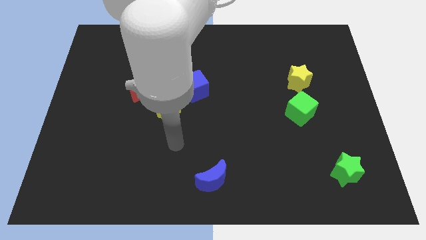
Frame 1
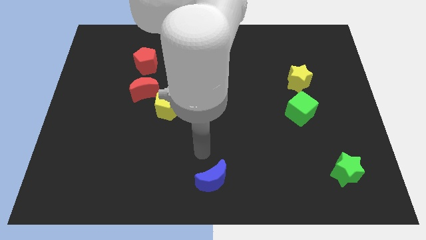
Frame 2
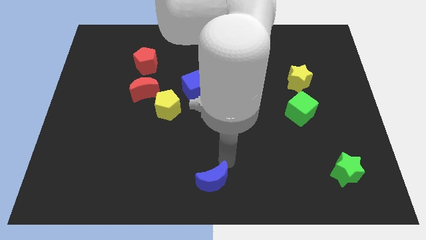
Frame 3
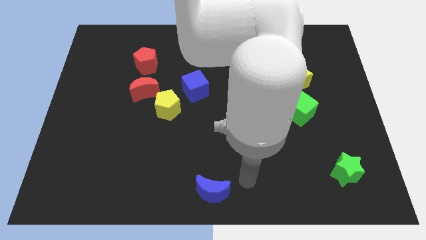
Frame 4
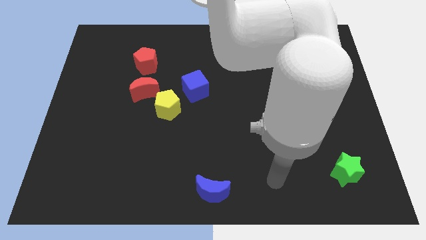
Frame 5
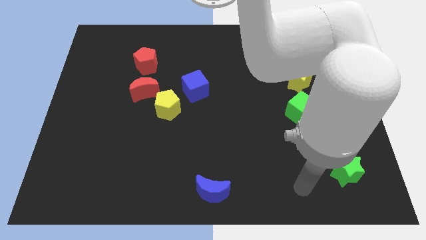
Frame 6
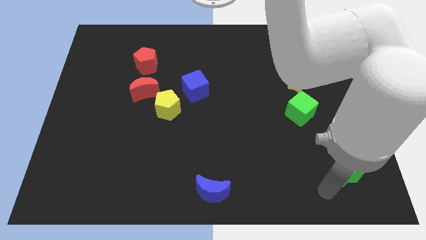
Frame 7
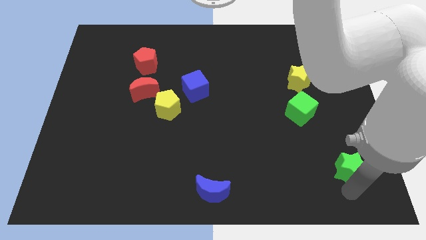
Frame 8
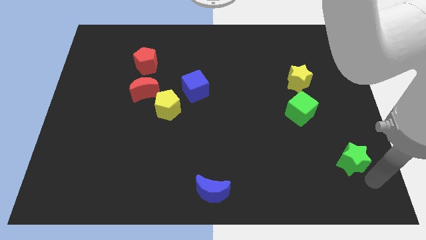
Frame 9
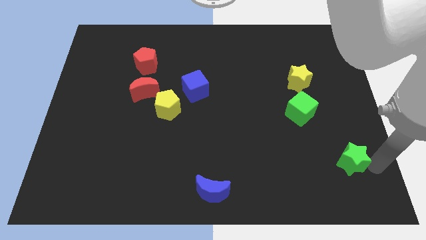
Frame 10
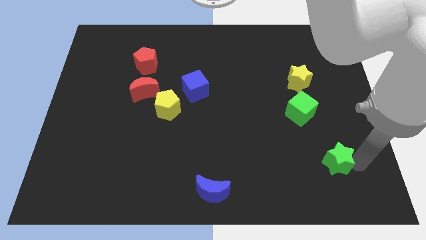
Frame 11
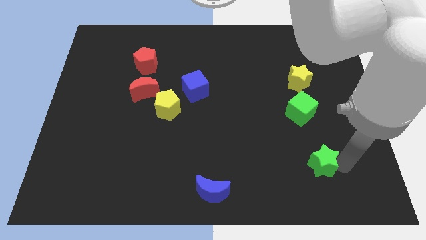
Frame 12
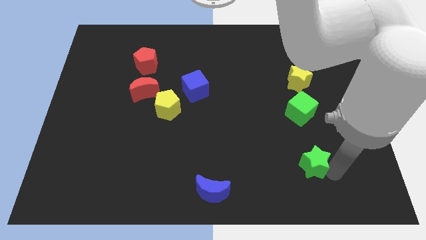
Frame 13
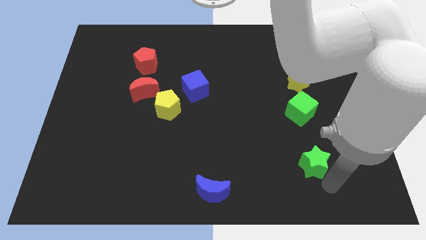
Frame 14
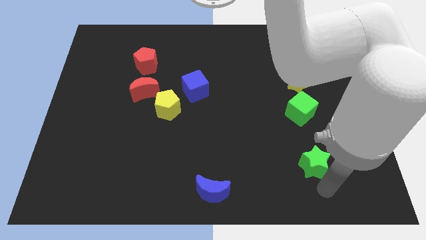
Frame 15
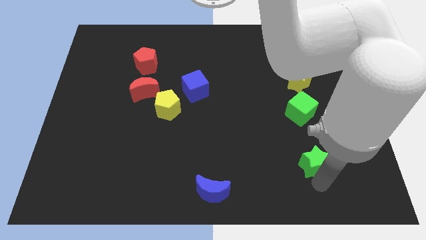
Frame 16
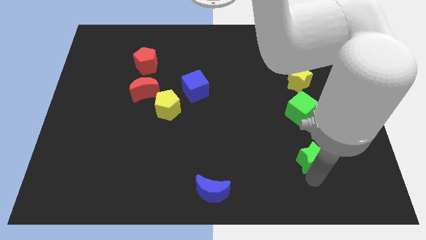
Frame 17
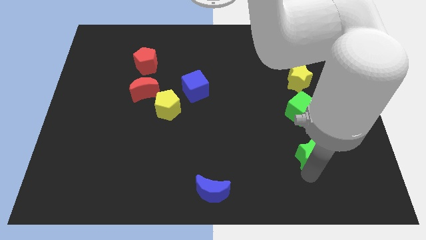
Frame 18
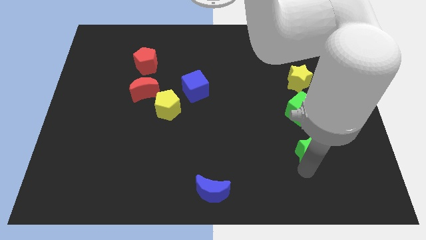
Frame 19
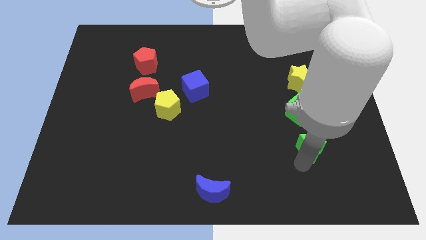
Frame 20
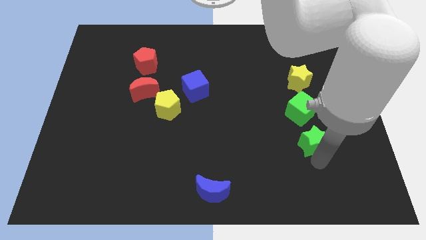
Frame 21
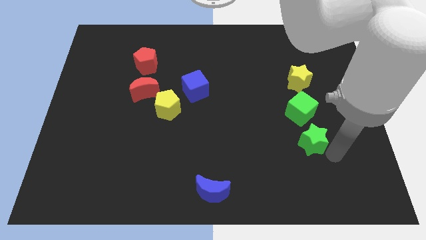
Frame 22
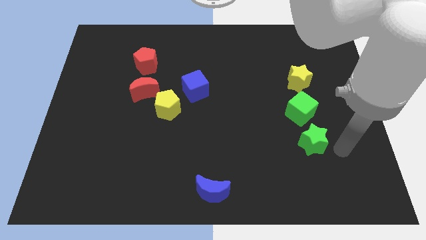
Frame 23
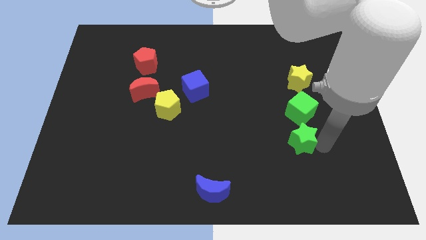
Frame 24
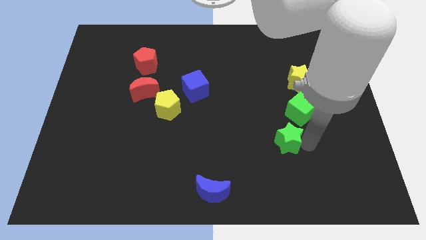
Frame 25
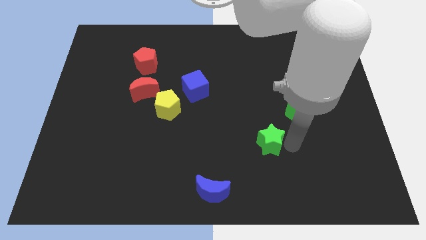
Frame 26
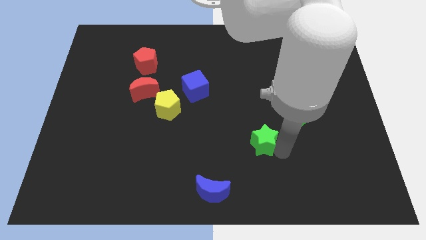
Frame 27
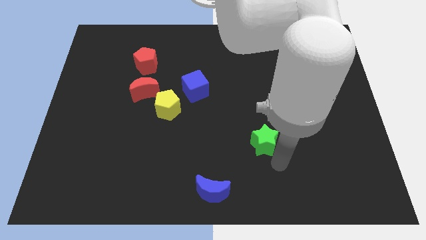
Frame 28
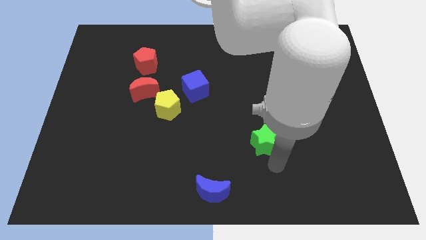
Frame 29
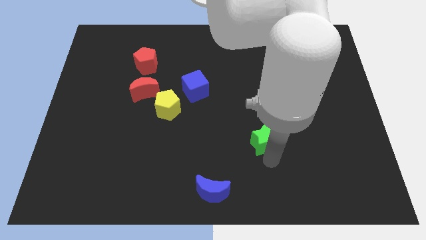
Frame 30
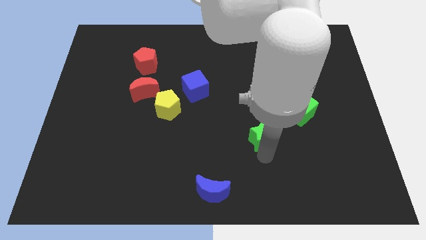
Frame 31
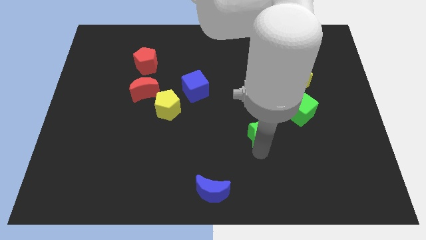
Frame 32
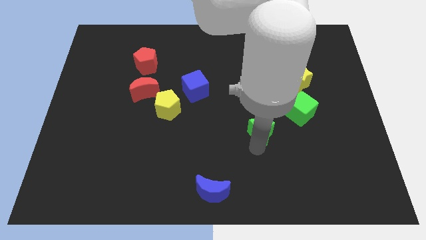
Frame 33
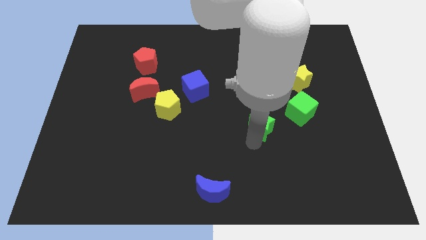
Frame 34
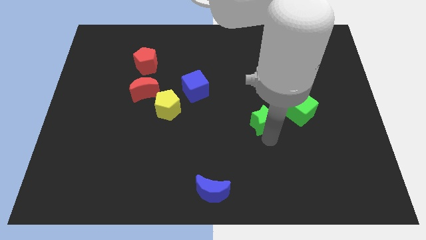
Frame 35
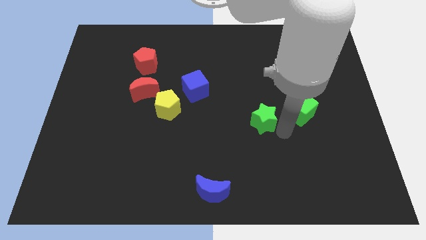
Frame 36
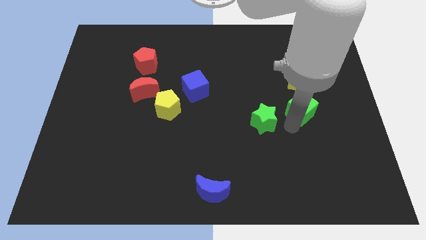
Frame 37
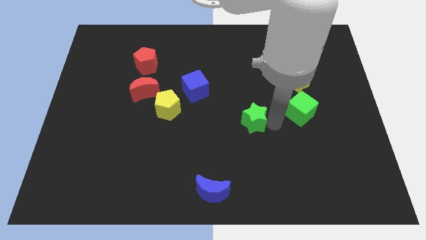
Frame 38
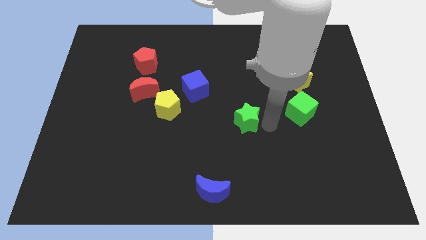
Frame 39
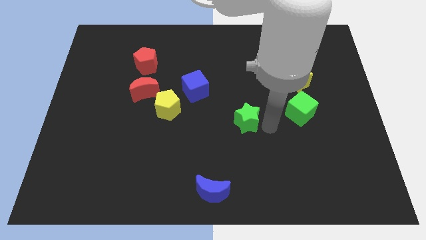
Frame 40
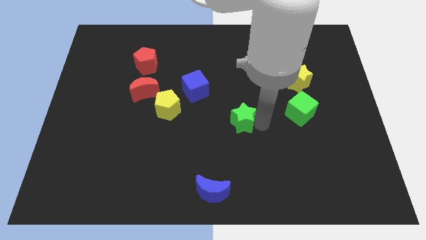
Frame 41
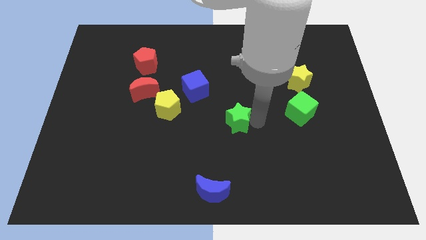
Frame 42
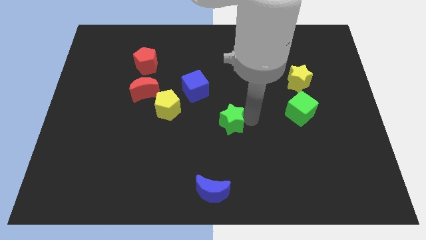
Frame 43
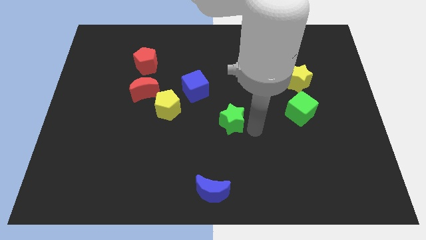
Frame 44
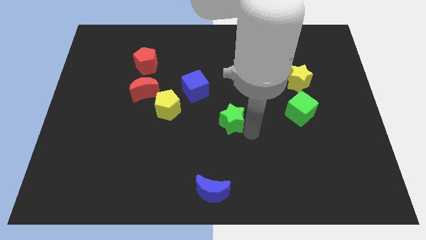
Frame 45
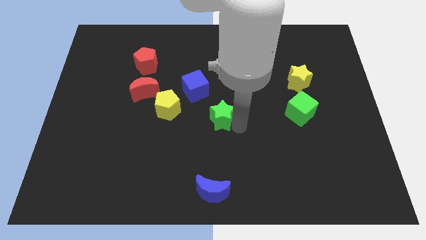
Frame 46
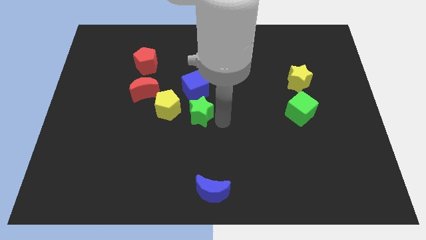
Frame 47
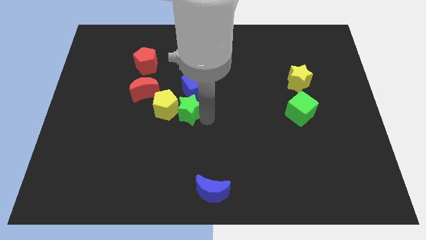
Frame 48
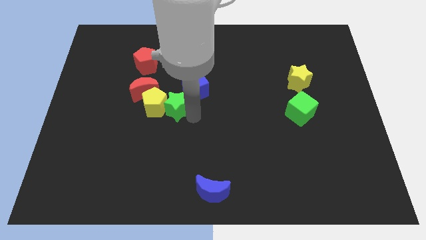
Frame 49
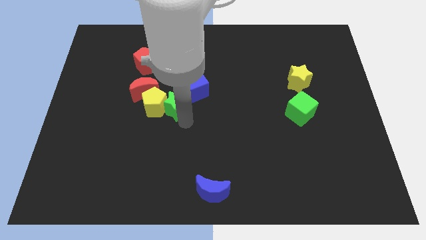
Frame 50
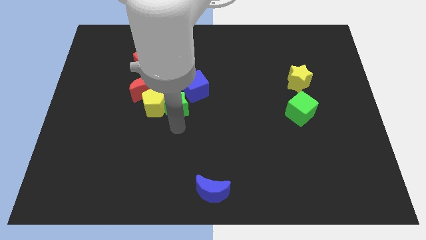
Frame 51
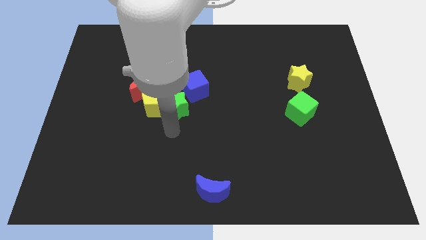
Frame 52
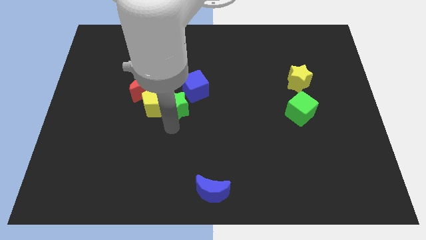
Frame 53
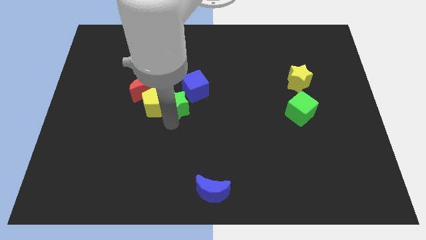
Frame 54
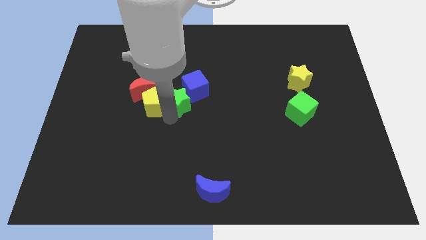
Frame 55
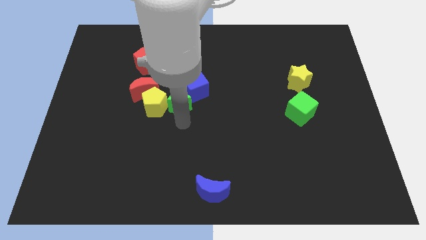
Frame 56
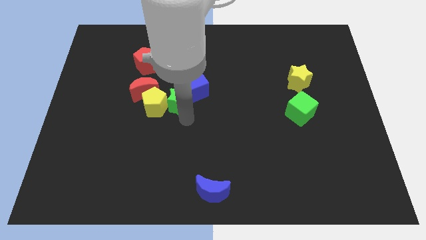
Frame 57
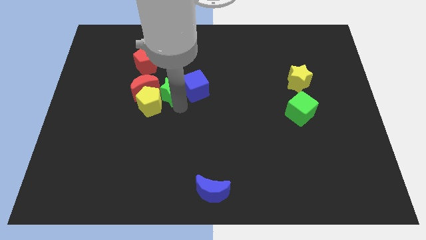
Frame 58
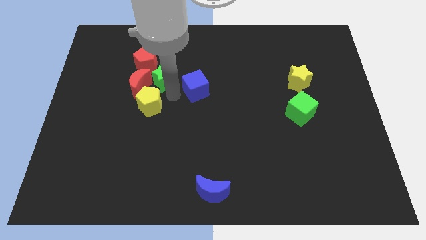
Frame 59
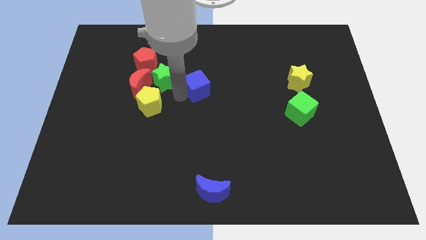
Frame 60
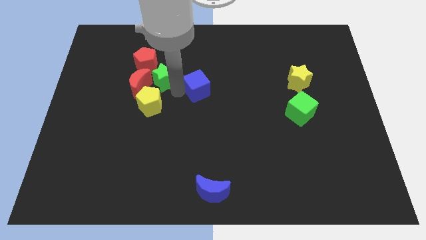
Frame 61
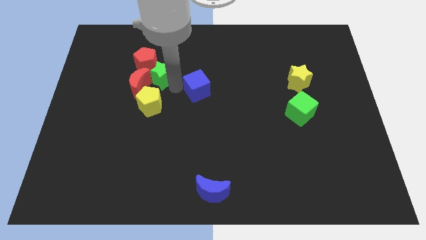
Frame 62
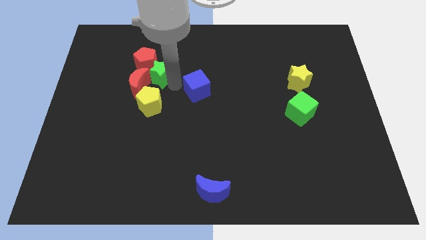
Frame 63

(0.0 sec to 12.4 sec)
slide the green star close to the red pentagon

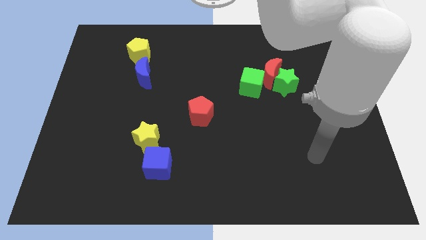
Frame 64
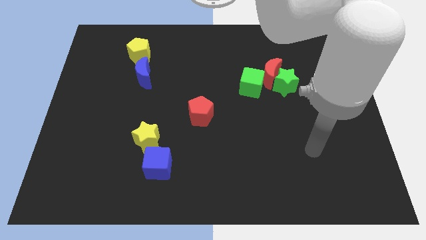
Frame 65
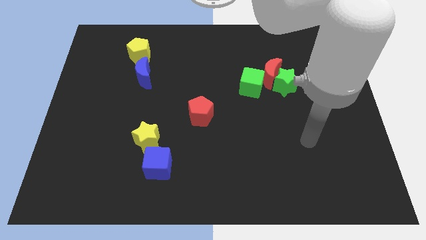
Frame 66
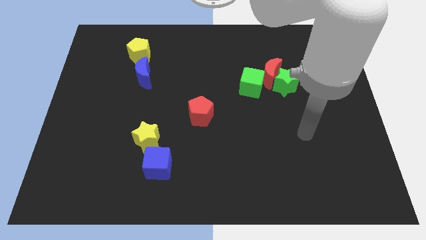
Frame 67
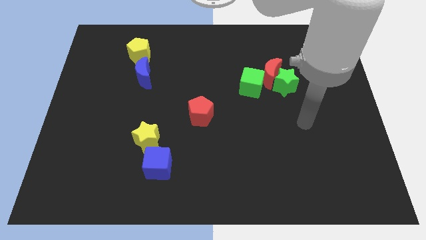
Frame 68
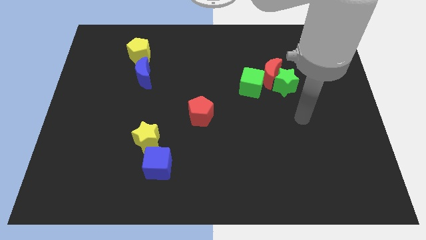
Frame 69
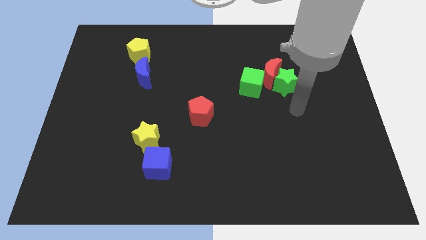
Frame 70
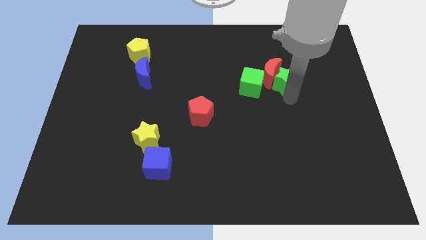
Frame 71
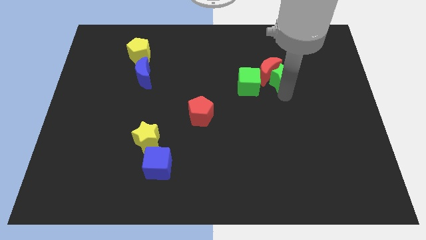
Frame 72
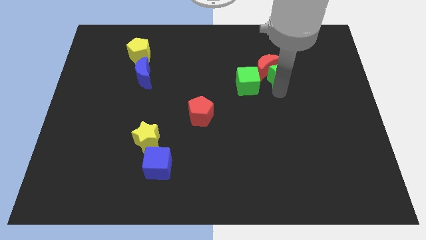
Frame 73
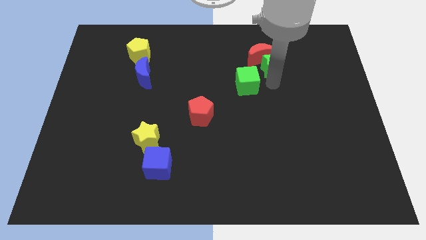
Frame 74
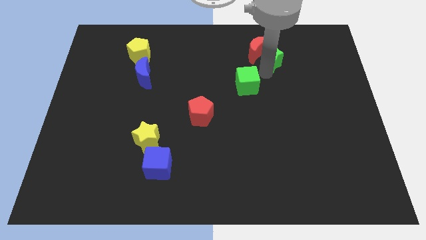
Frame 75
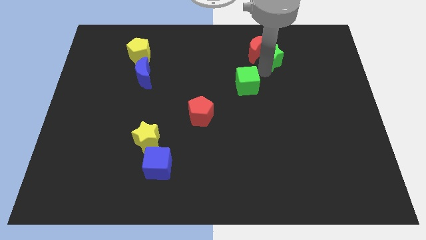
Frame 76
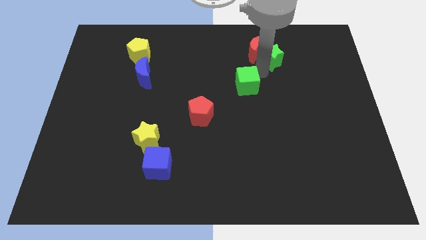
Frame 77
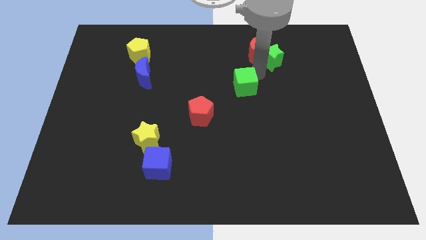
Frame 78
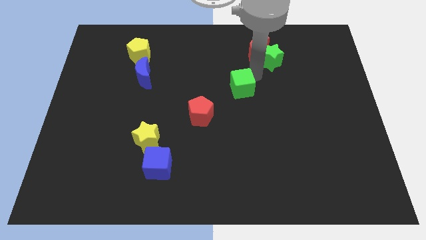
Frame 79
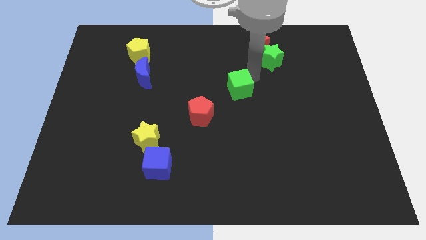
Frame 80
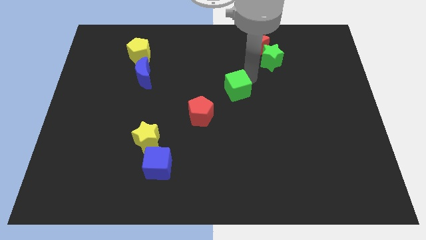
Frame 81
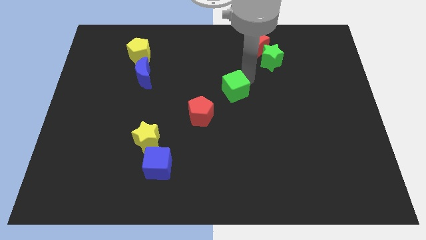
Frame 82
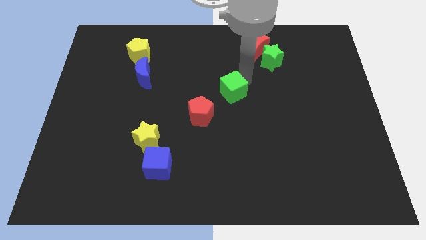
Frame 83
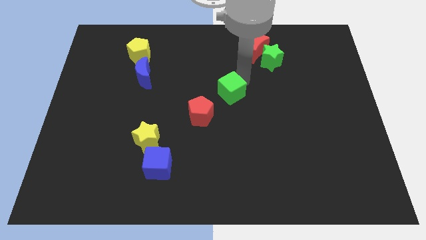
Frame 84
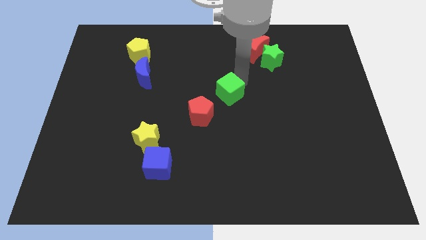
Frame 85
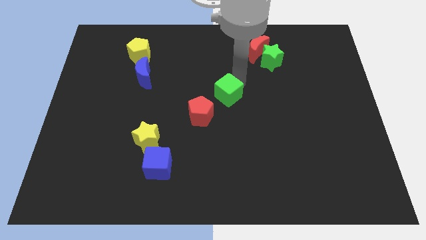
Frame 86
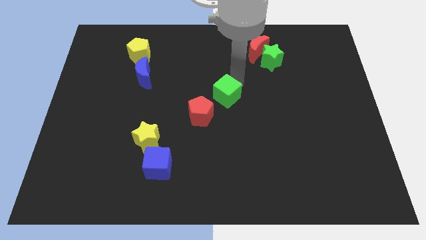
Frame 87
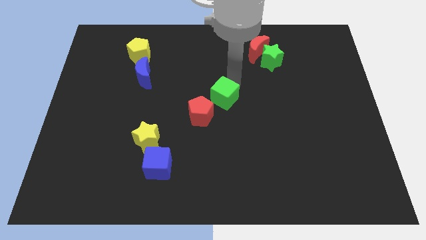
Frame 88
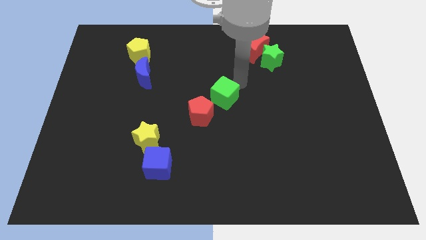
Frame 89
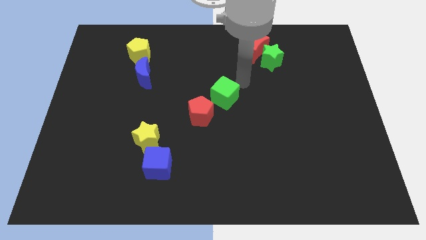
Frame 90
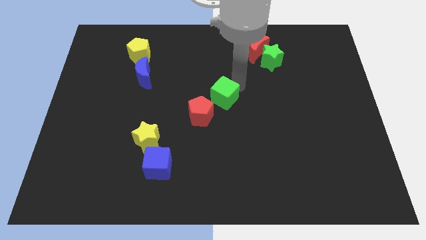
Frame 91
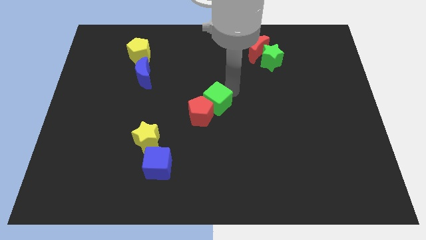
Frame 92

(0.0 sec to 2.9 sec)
put the green cube next to the red pentagon
